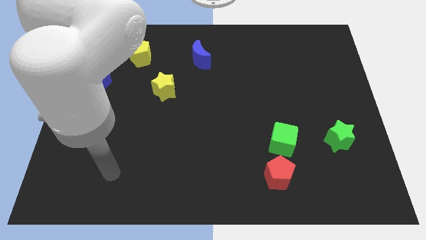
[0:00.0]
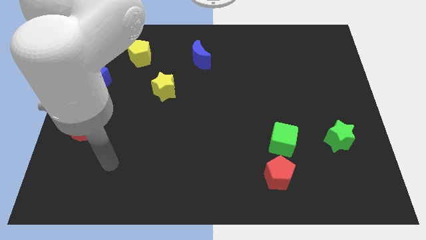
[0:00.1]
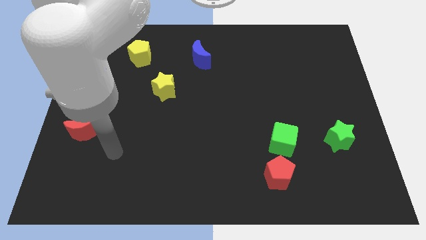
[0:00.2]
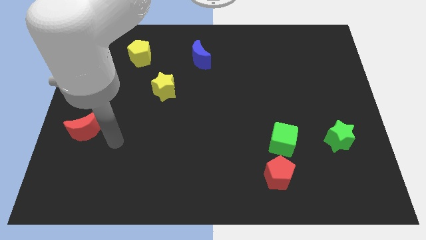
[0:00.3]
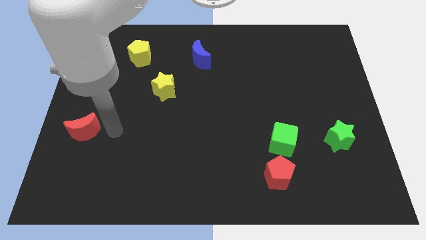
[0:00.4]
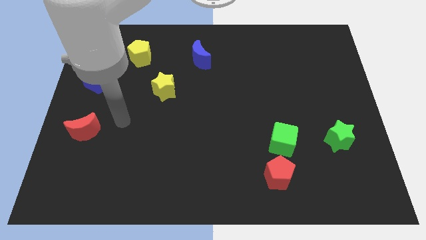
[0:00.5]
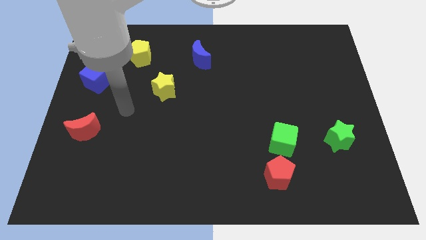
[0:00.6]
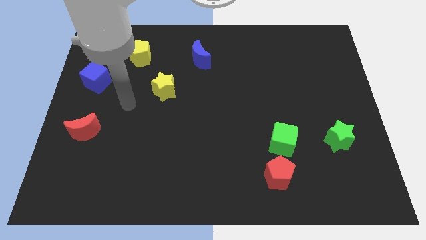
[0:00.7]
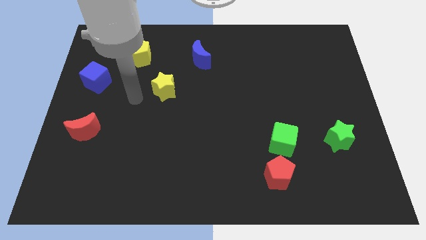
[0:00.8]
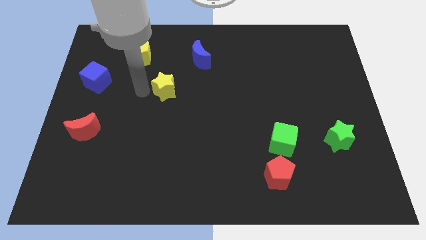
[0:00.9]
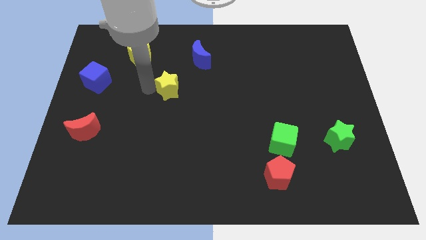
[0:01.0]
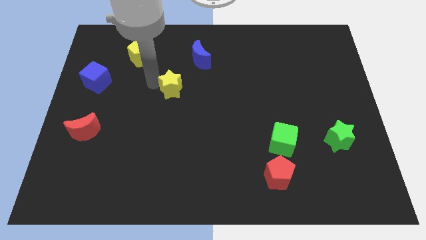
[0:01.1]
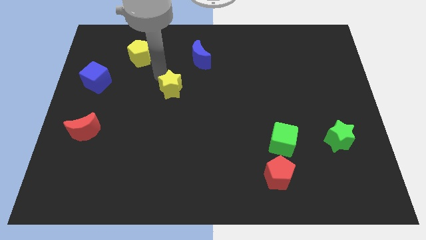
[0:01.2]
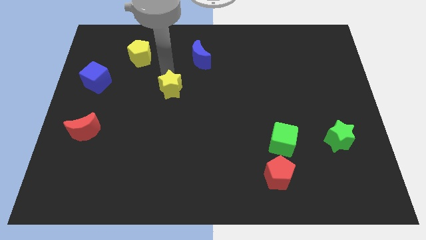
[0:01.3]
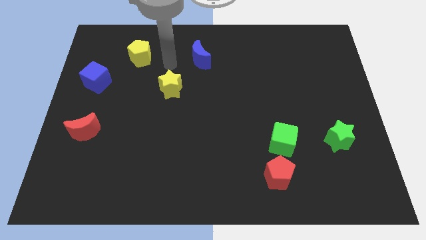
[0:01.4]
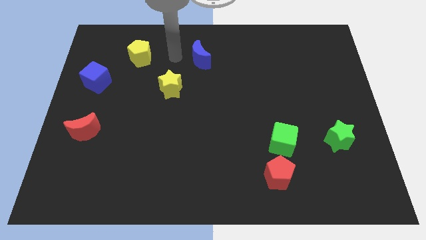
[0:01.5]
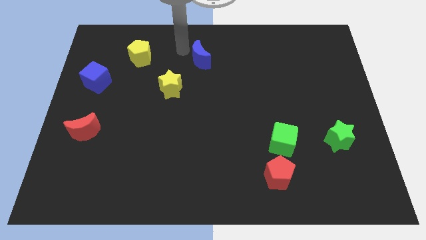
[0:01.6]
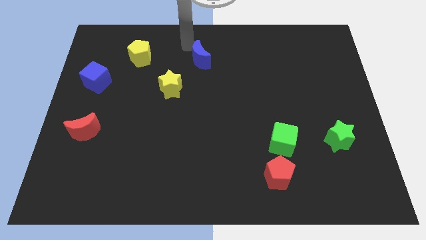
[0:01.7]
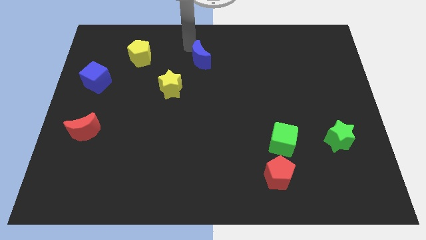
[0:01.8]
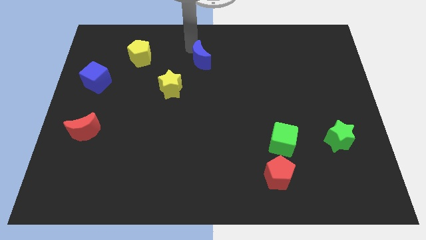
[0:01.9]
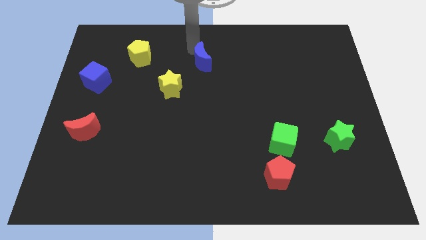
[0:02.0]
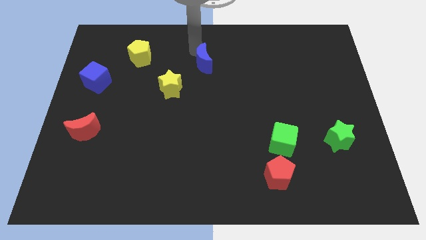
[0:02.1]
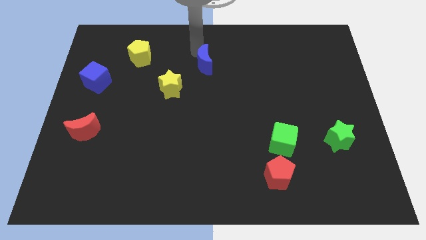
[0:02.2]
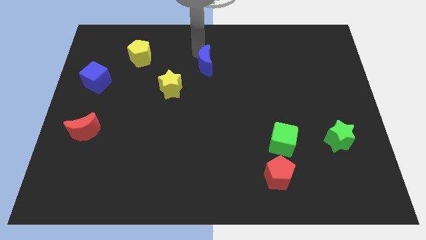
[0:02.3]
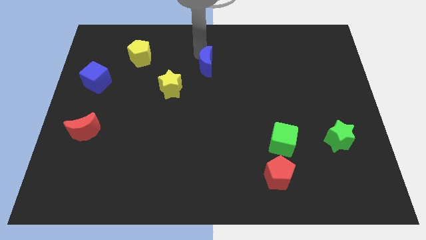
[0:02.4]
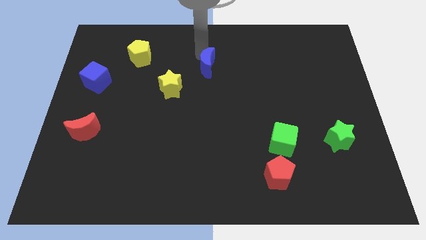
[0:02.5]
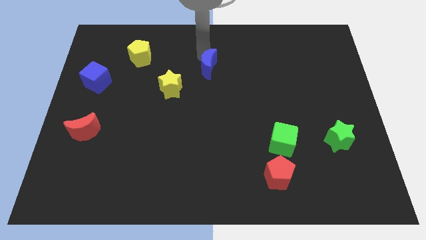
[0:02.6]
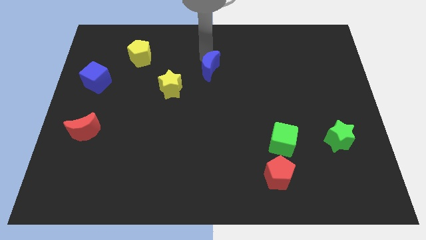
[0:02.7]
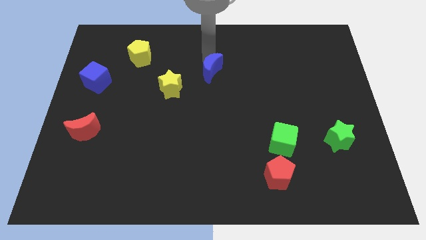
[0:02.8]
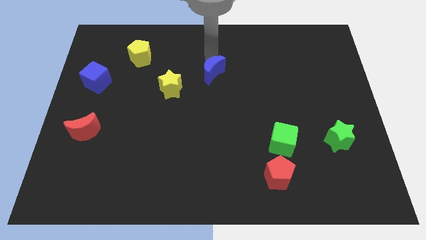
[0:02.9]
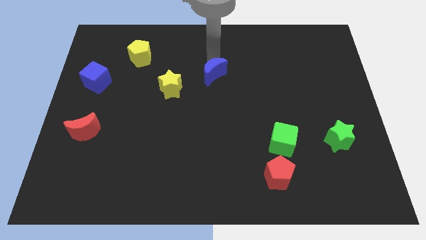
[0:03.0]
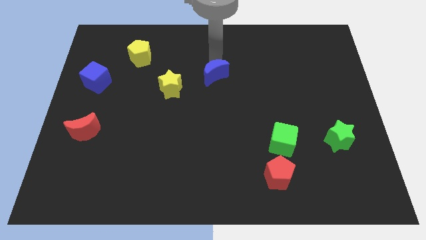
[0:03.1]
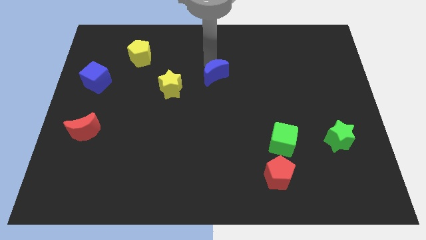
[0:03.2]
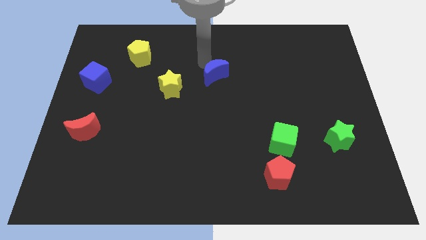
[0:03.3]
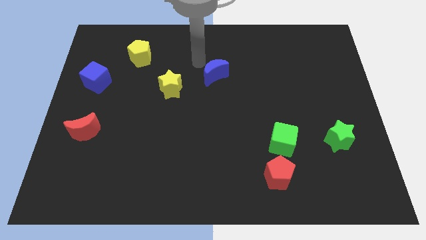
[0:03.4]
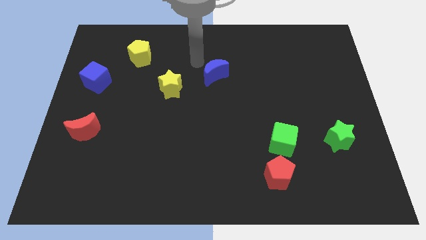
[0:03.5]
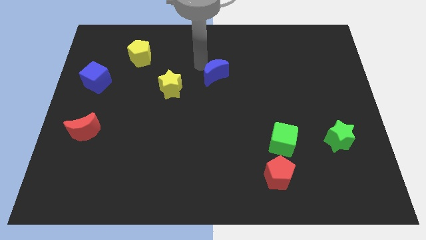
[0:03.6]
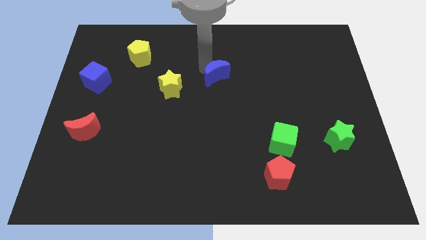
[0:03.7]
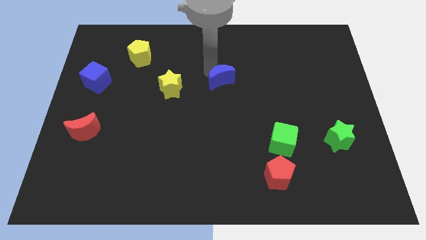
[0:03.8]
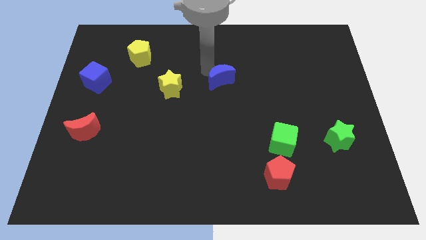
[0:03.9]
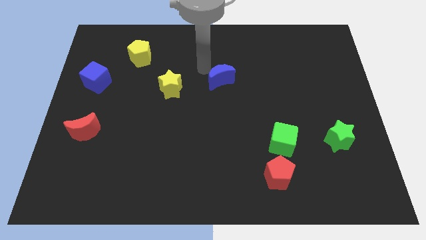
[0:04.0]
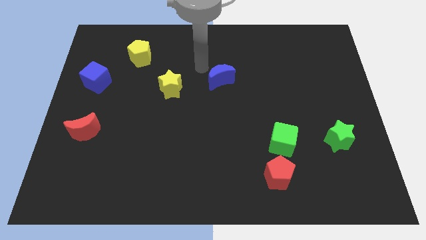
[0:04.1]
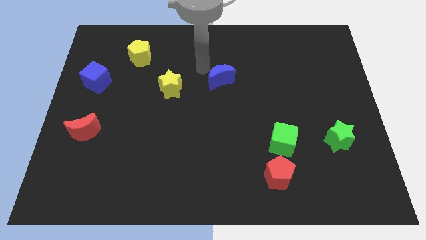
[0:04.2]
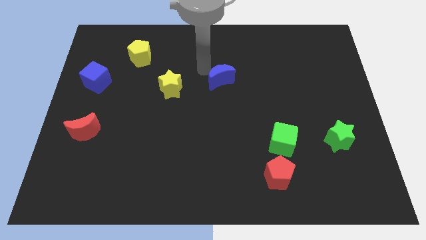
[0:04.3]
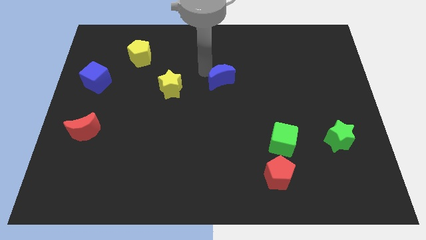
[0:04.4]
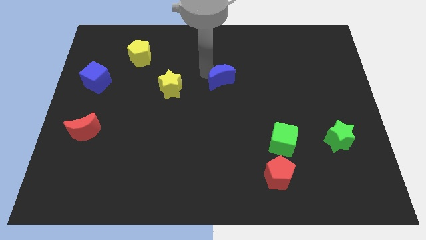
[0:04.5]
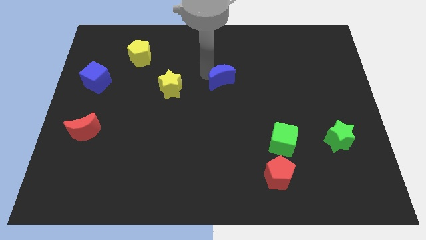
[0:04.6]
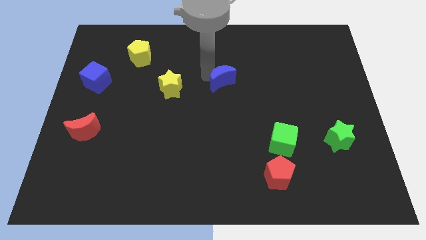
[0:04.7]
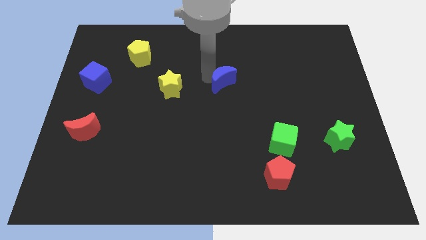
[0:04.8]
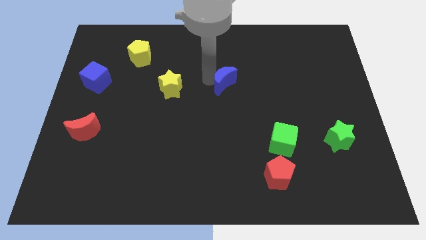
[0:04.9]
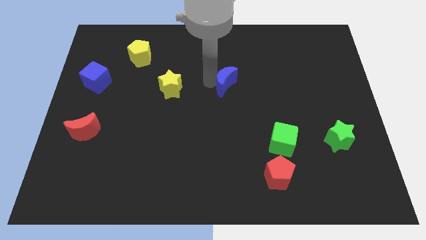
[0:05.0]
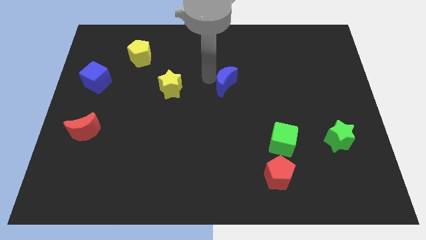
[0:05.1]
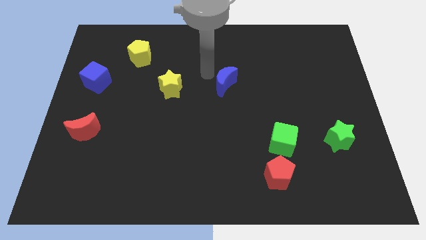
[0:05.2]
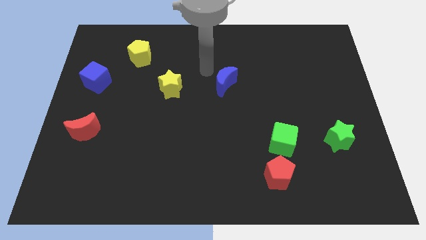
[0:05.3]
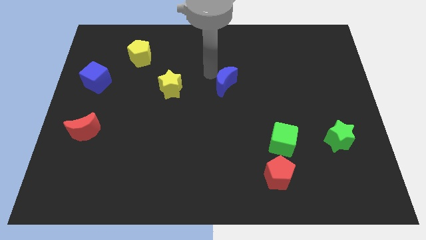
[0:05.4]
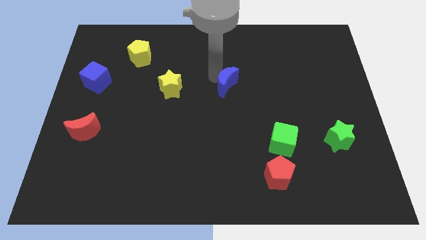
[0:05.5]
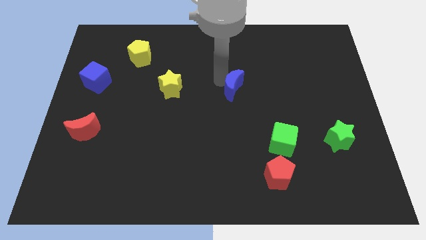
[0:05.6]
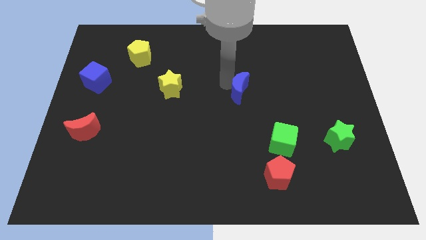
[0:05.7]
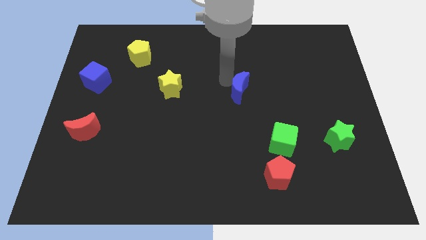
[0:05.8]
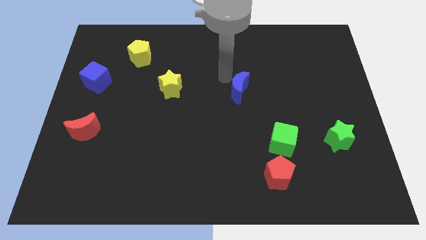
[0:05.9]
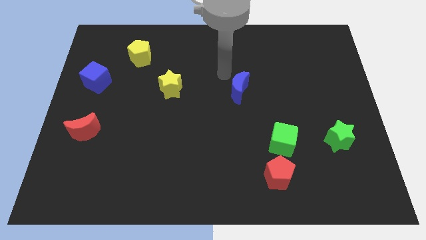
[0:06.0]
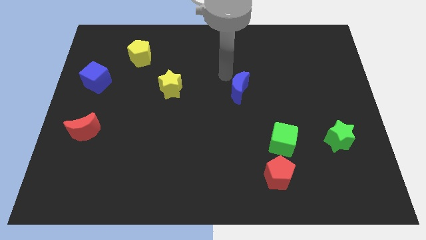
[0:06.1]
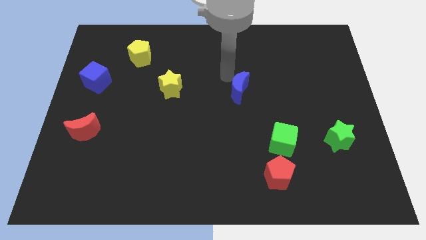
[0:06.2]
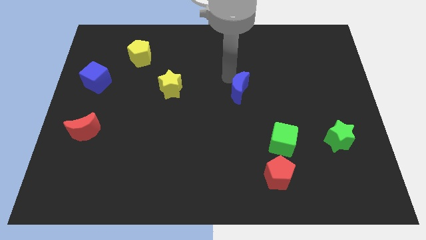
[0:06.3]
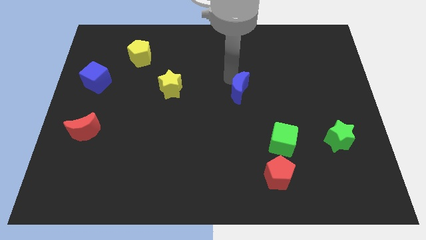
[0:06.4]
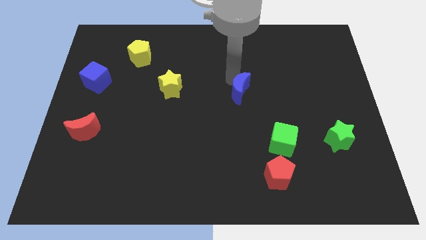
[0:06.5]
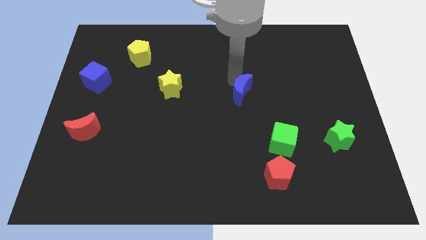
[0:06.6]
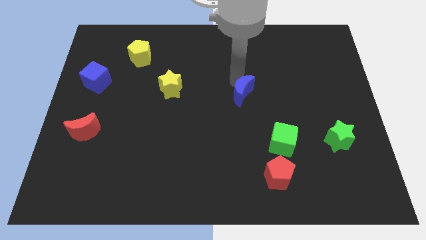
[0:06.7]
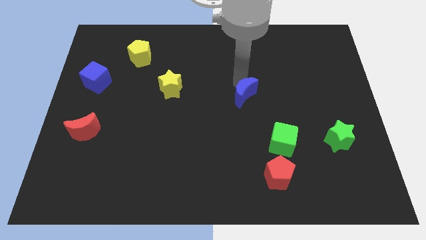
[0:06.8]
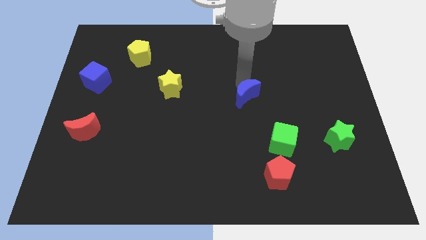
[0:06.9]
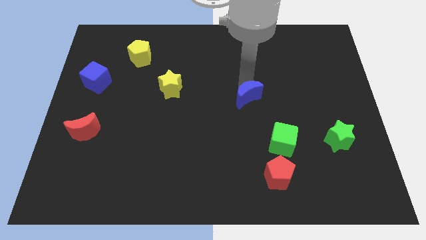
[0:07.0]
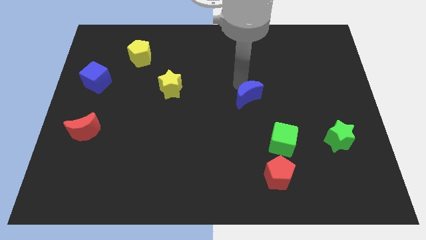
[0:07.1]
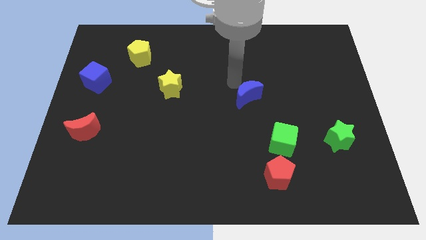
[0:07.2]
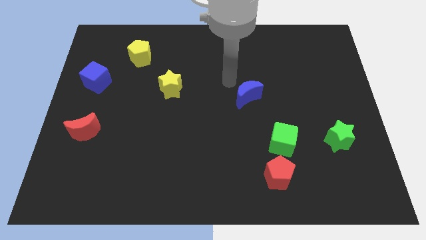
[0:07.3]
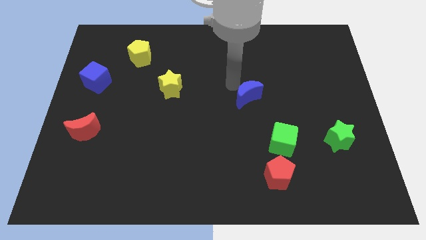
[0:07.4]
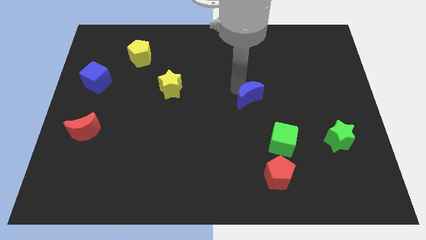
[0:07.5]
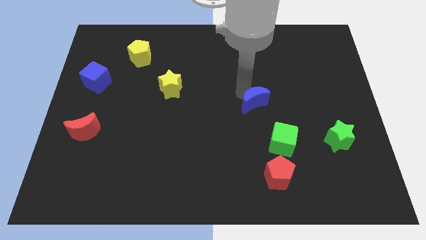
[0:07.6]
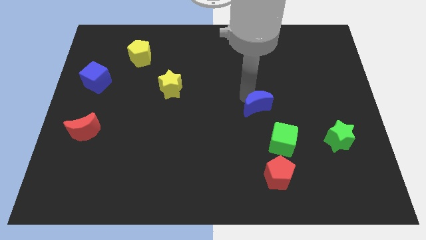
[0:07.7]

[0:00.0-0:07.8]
slide the blue moon diagonally downwards and to the right
